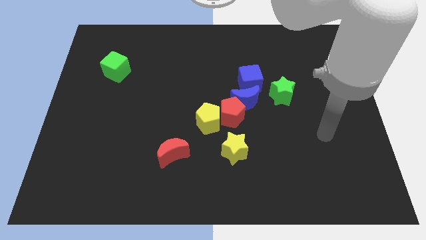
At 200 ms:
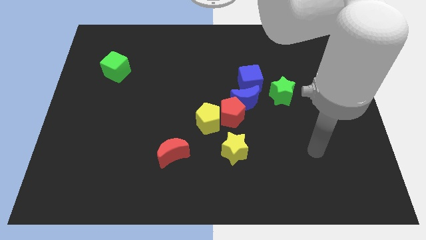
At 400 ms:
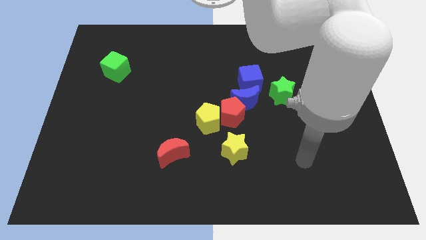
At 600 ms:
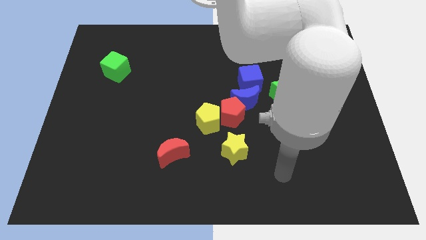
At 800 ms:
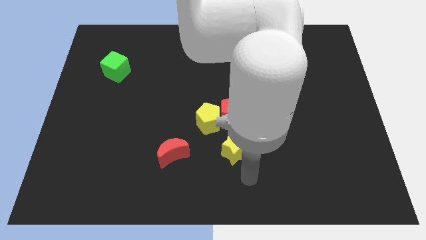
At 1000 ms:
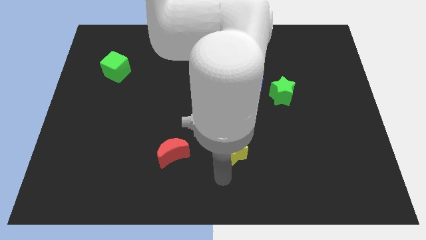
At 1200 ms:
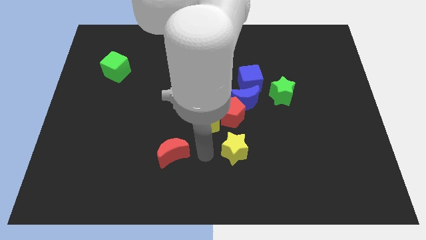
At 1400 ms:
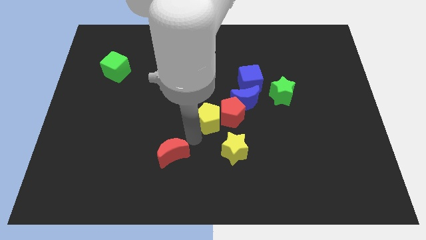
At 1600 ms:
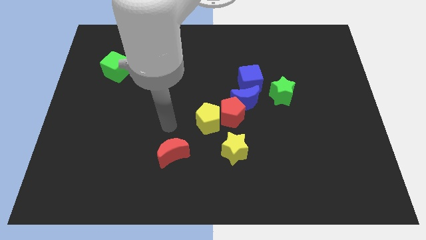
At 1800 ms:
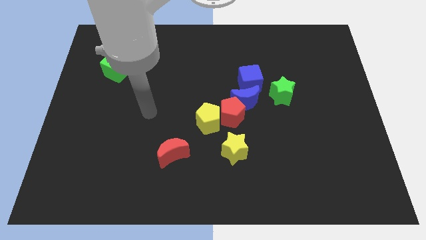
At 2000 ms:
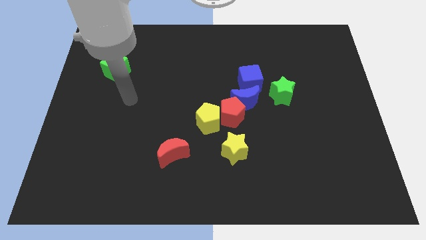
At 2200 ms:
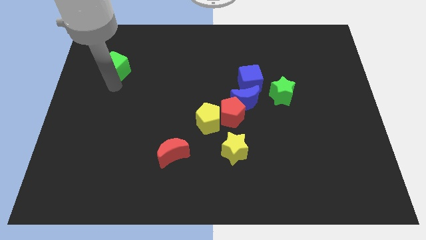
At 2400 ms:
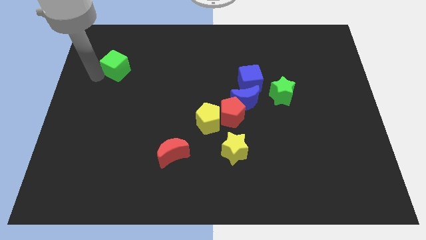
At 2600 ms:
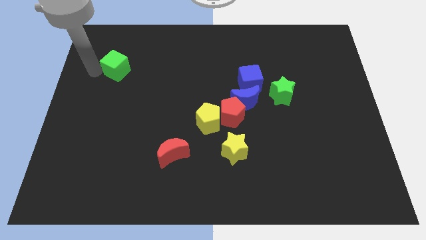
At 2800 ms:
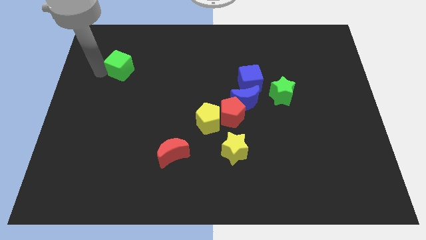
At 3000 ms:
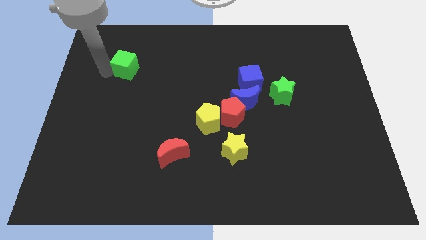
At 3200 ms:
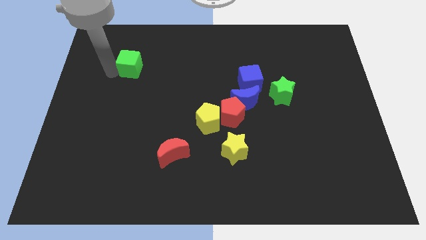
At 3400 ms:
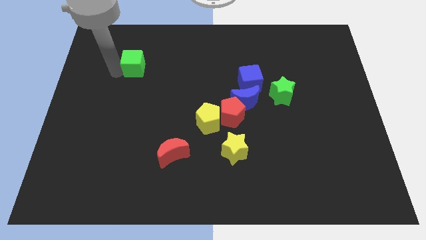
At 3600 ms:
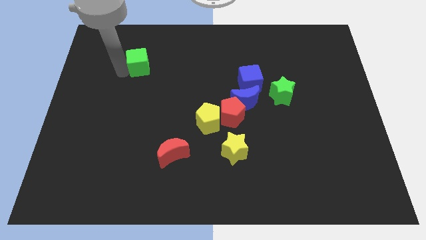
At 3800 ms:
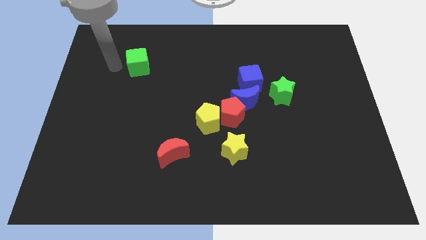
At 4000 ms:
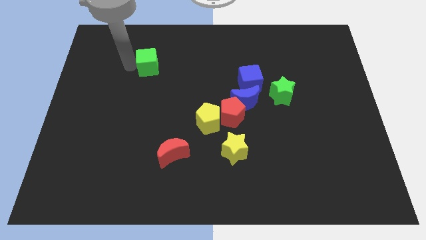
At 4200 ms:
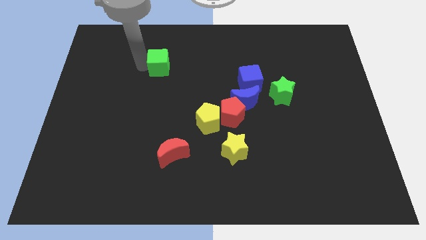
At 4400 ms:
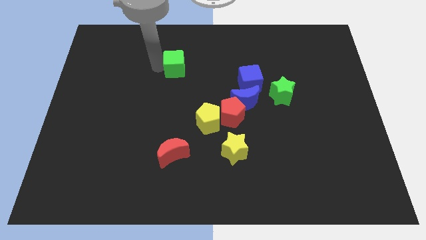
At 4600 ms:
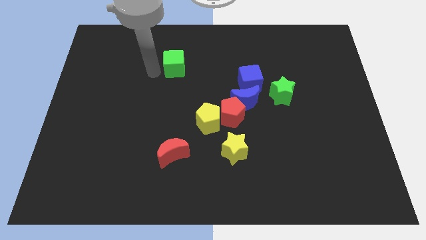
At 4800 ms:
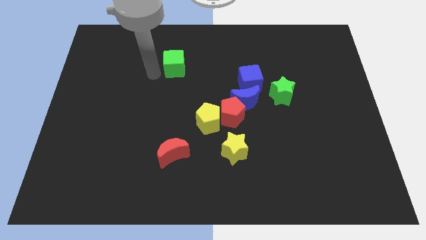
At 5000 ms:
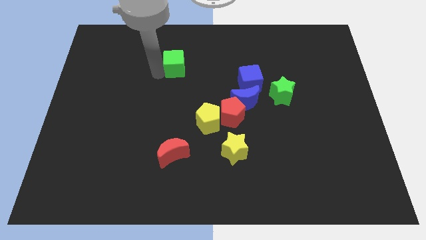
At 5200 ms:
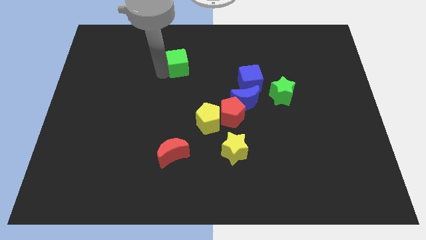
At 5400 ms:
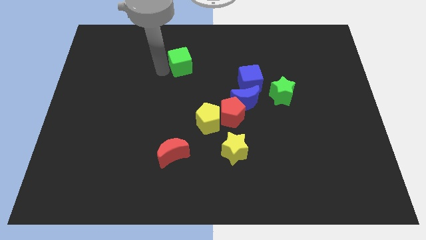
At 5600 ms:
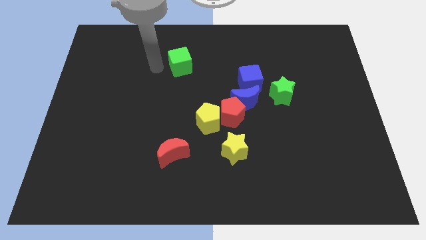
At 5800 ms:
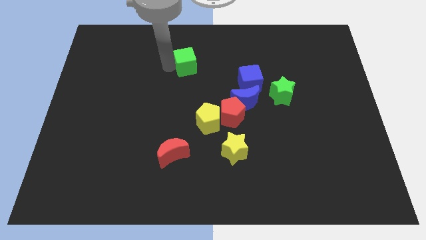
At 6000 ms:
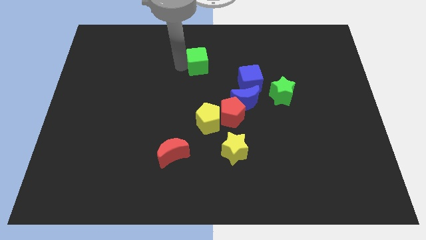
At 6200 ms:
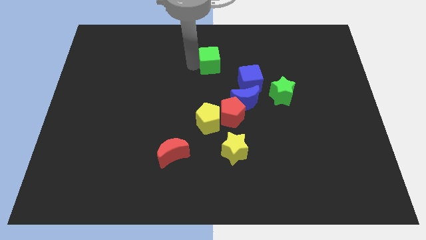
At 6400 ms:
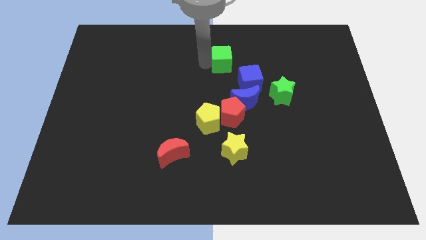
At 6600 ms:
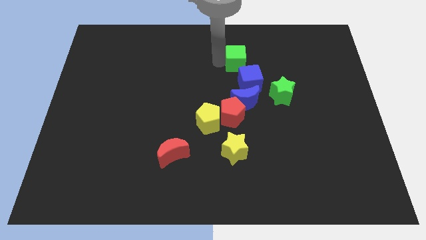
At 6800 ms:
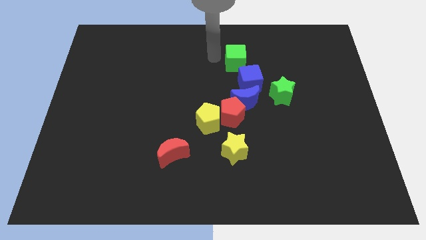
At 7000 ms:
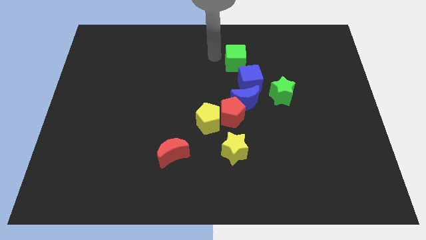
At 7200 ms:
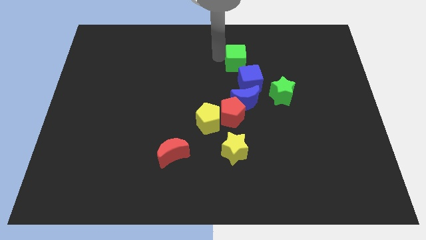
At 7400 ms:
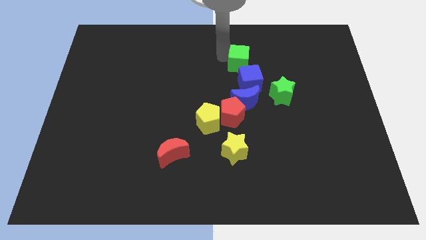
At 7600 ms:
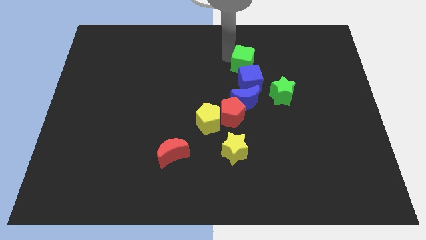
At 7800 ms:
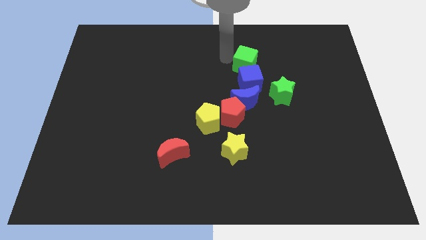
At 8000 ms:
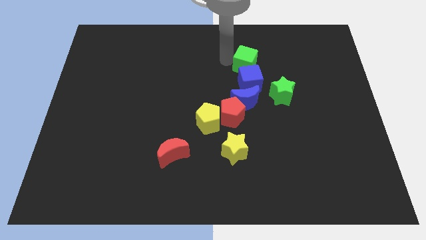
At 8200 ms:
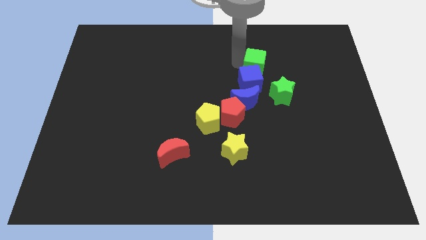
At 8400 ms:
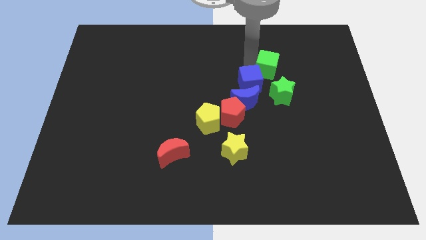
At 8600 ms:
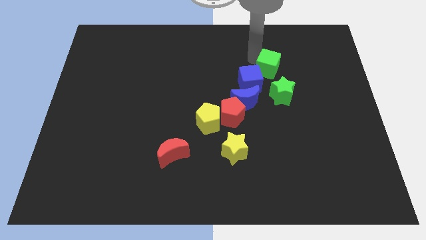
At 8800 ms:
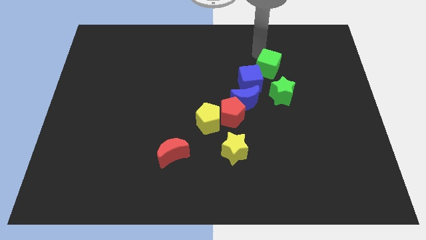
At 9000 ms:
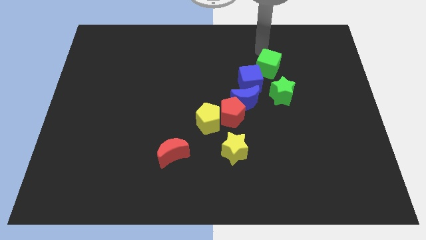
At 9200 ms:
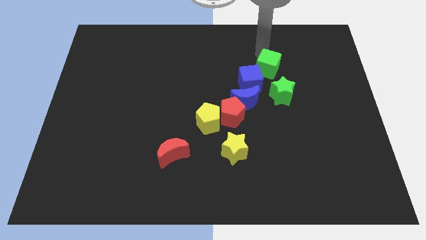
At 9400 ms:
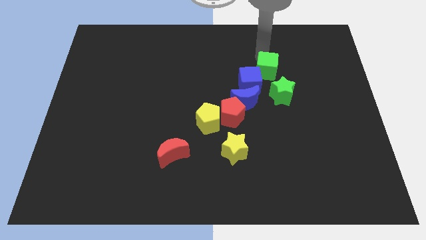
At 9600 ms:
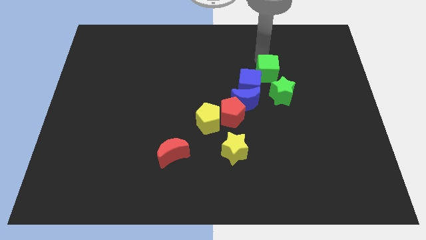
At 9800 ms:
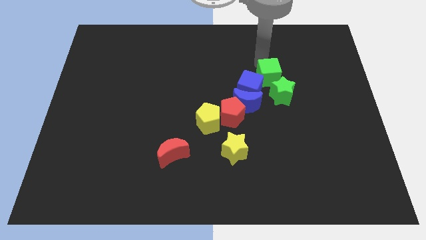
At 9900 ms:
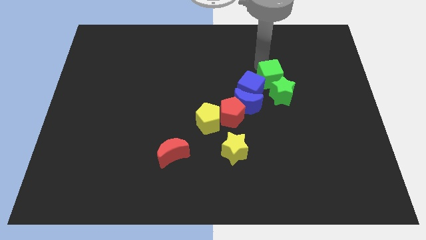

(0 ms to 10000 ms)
slide the green cube next to the green star

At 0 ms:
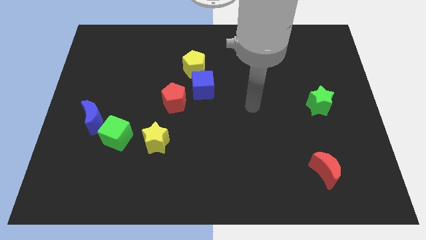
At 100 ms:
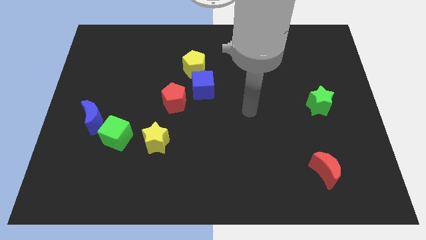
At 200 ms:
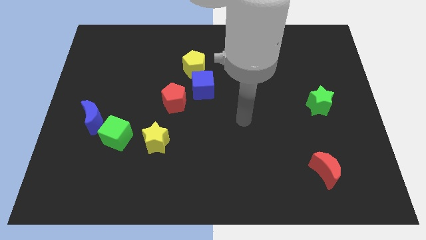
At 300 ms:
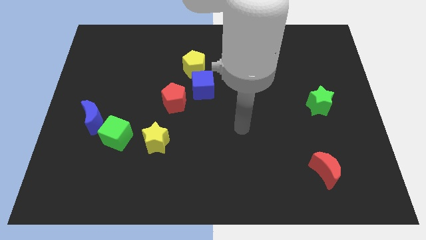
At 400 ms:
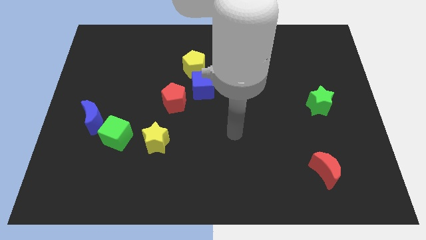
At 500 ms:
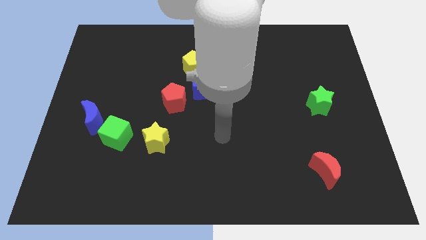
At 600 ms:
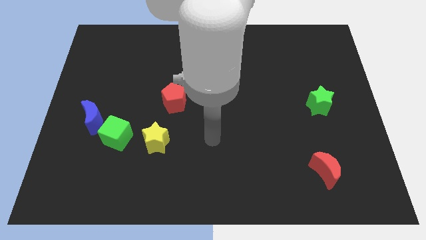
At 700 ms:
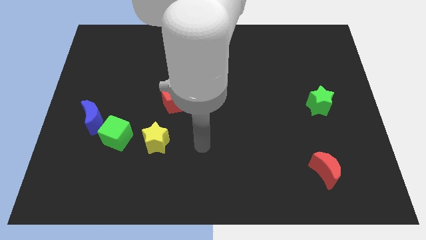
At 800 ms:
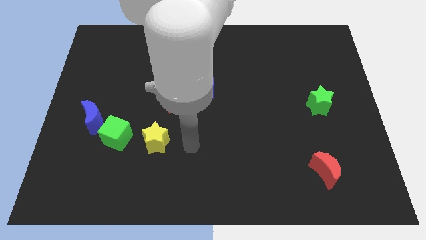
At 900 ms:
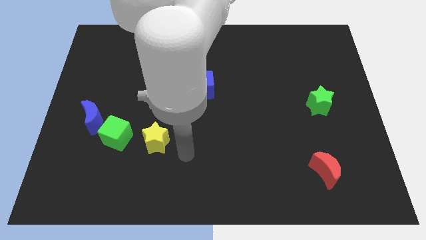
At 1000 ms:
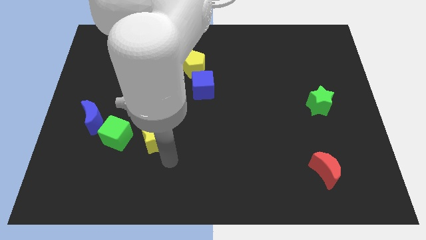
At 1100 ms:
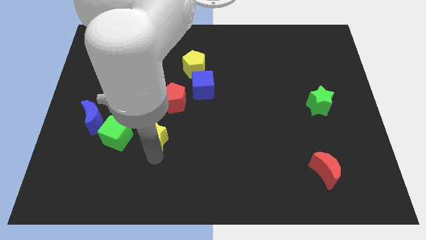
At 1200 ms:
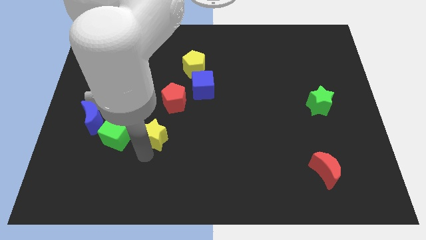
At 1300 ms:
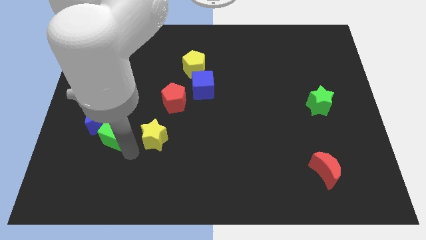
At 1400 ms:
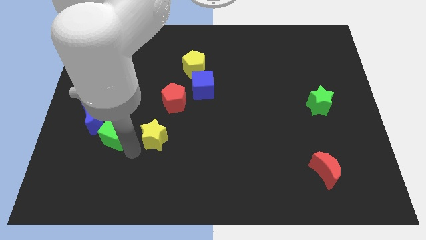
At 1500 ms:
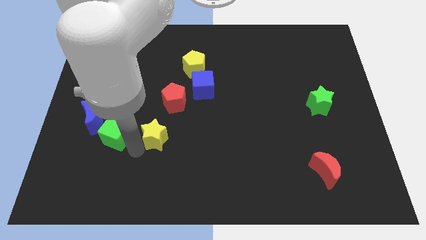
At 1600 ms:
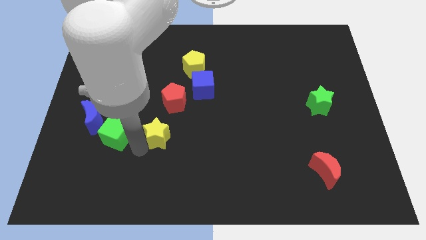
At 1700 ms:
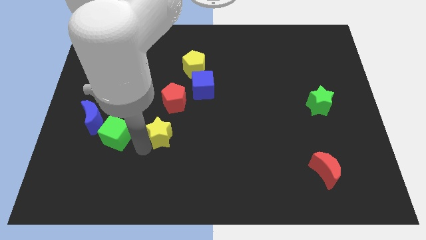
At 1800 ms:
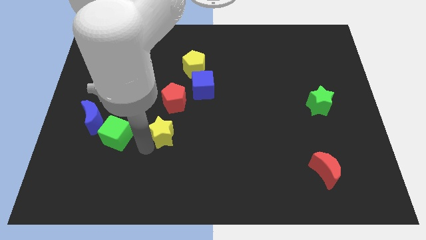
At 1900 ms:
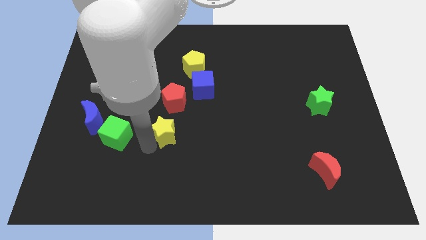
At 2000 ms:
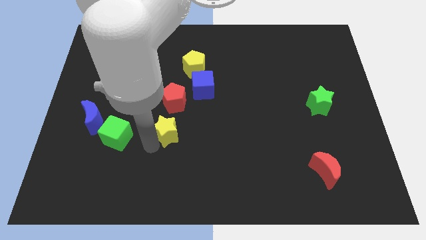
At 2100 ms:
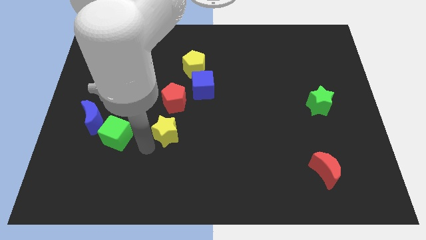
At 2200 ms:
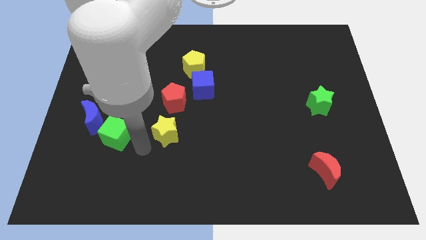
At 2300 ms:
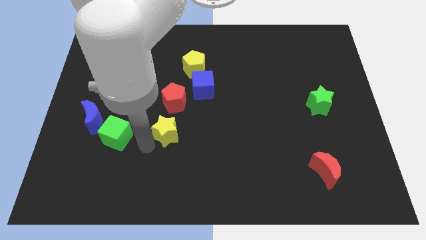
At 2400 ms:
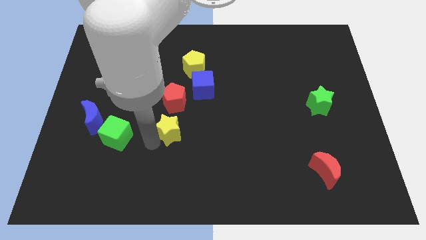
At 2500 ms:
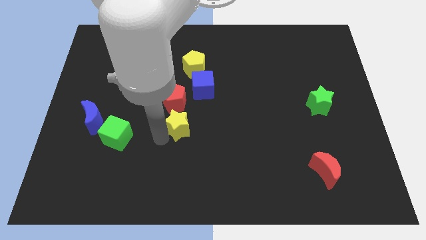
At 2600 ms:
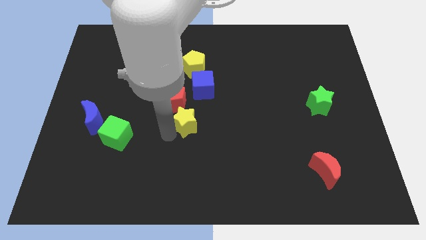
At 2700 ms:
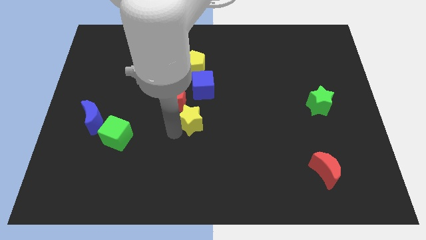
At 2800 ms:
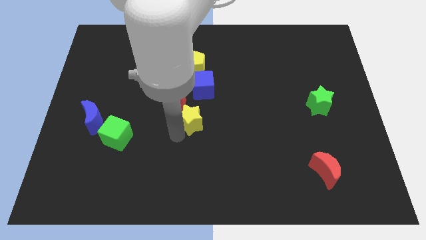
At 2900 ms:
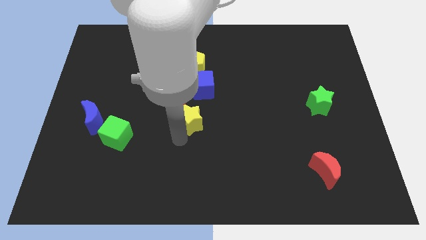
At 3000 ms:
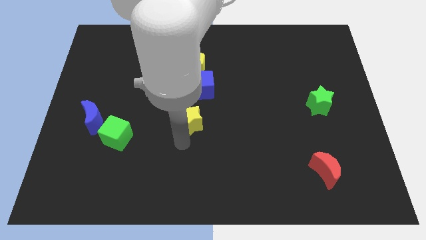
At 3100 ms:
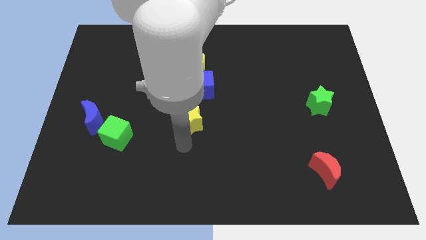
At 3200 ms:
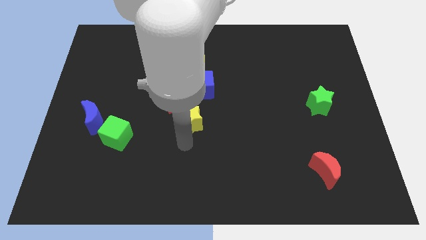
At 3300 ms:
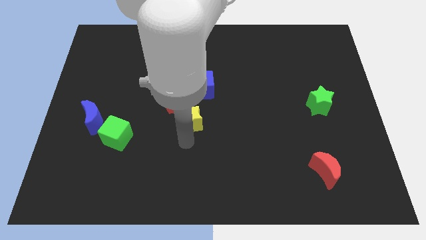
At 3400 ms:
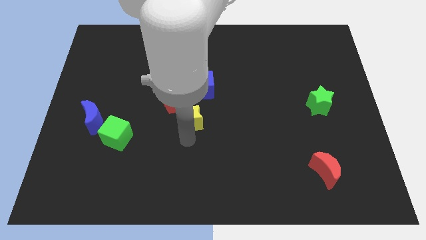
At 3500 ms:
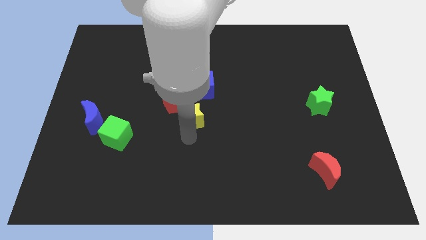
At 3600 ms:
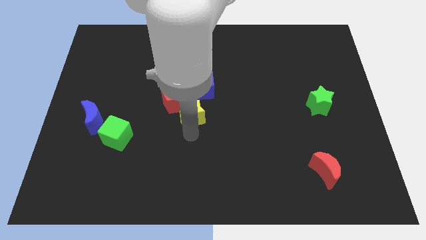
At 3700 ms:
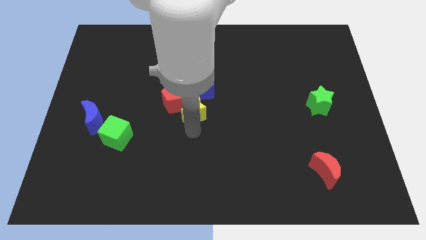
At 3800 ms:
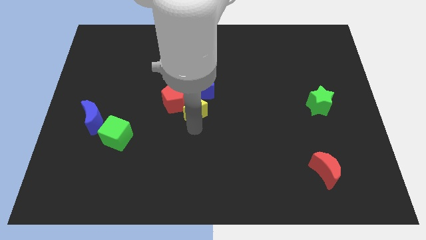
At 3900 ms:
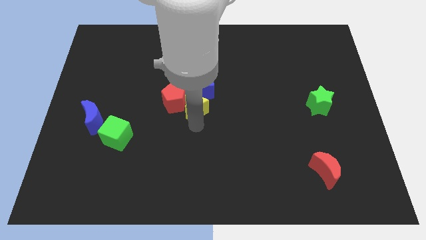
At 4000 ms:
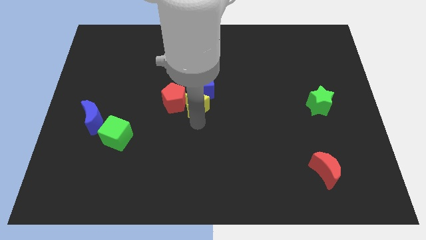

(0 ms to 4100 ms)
move the yellow star to the blue cube
